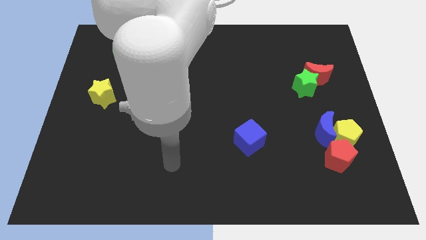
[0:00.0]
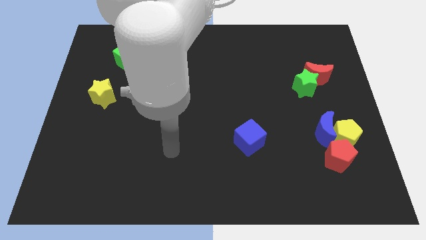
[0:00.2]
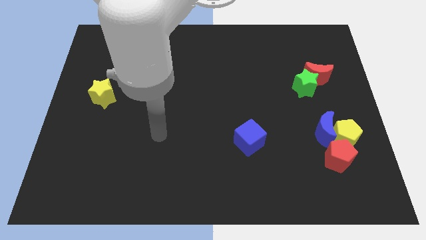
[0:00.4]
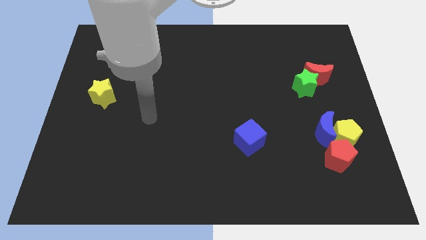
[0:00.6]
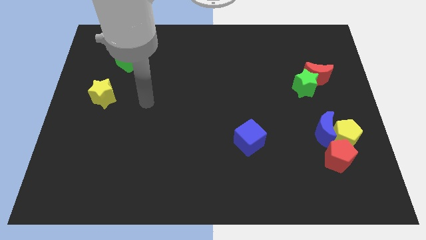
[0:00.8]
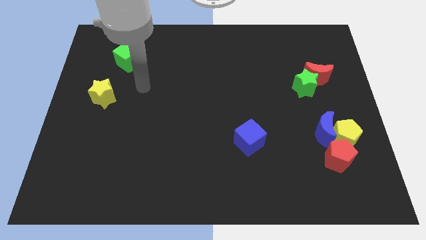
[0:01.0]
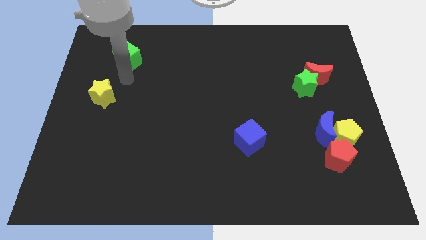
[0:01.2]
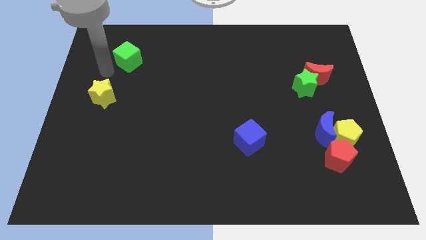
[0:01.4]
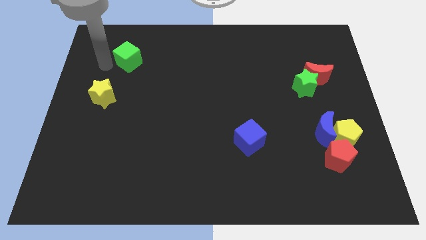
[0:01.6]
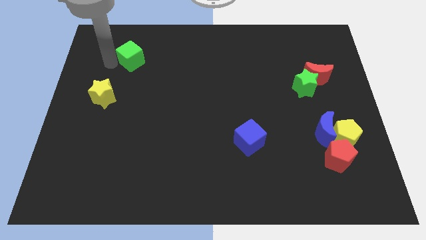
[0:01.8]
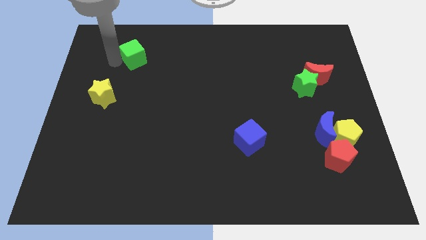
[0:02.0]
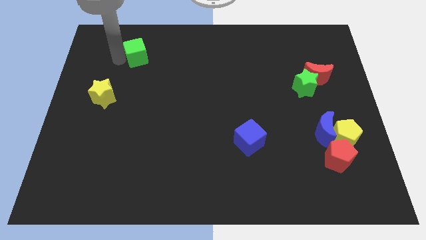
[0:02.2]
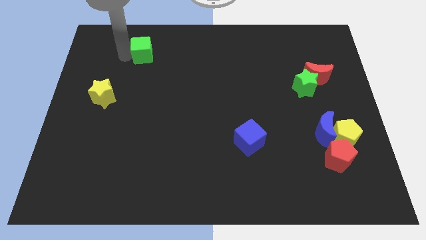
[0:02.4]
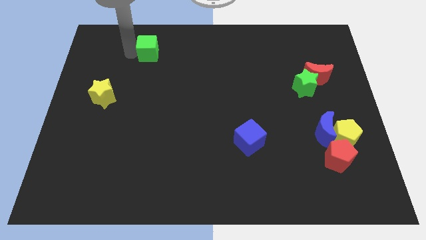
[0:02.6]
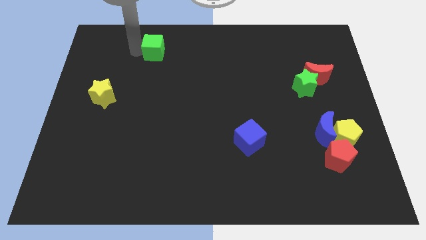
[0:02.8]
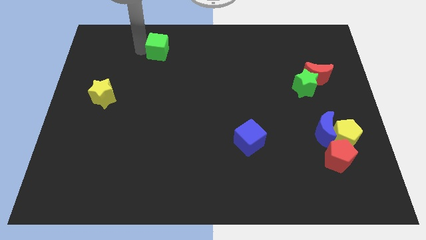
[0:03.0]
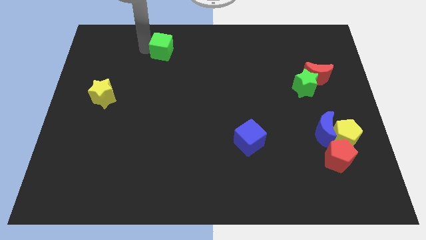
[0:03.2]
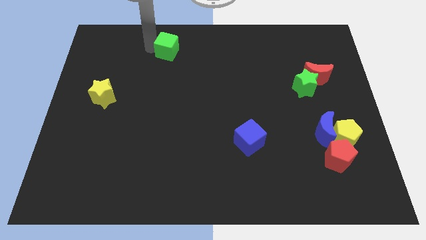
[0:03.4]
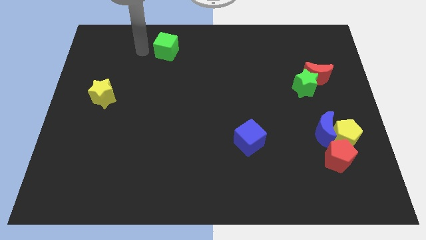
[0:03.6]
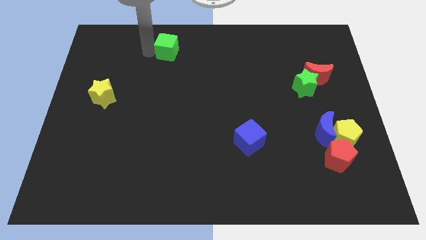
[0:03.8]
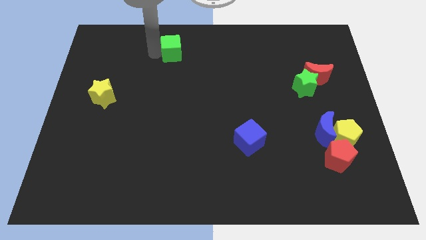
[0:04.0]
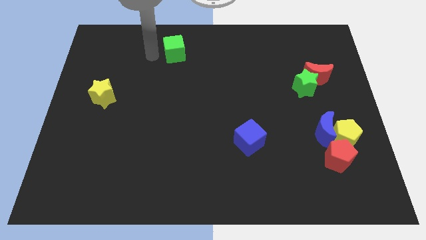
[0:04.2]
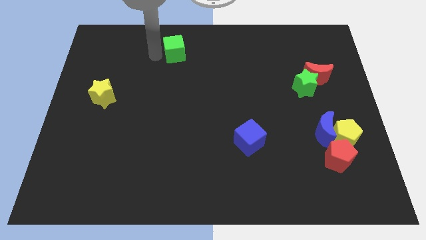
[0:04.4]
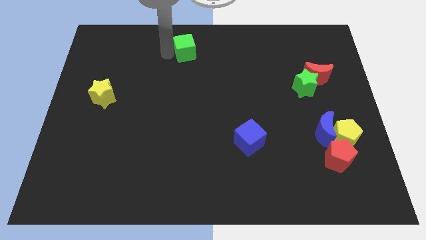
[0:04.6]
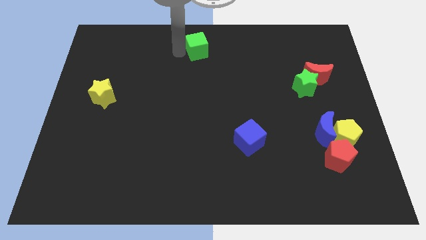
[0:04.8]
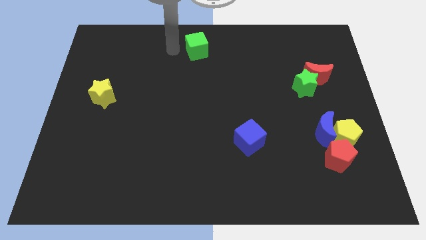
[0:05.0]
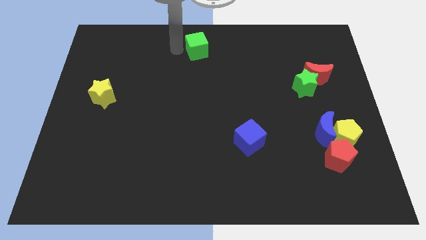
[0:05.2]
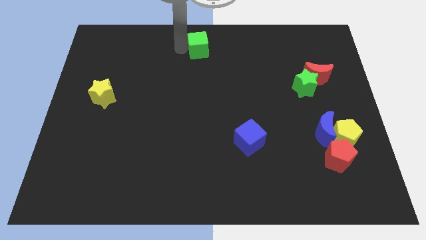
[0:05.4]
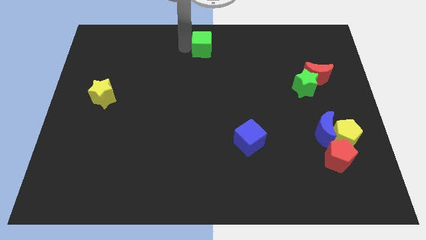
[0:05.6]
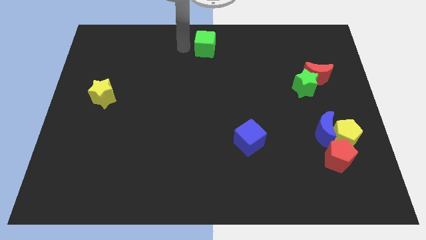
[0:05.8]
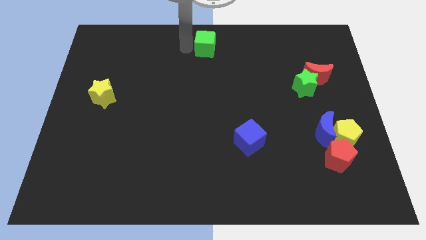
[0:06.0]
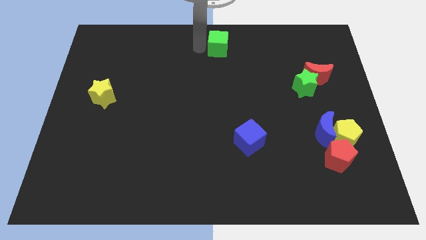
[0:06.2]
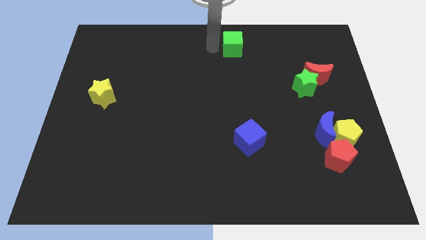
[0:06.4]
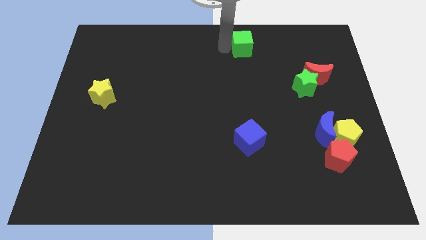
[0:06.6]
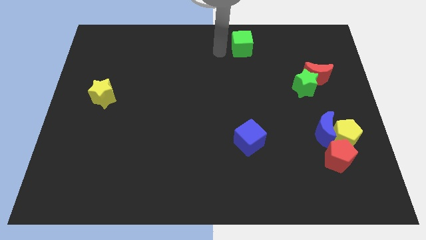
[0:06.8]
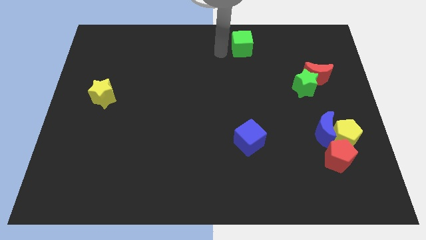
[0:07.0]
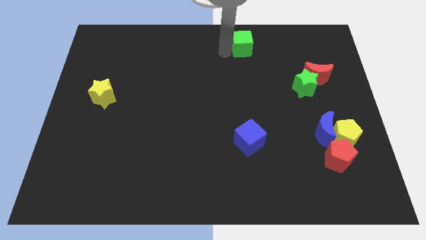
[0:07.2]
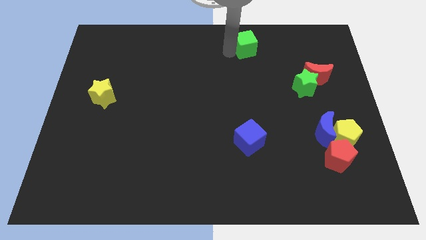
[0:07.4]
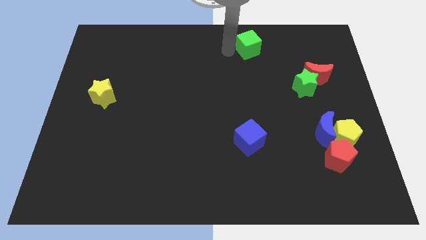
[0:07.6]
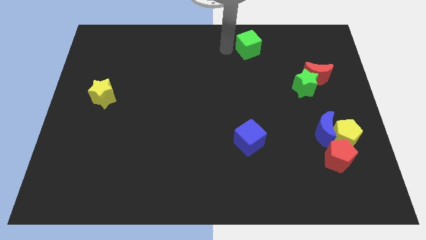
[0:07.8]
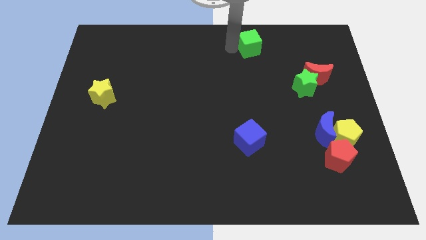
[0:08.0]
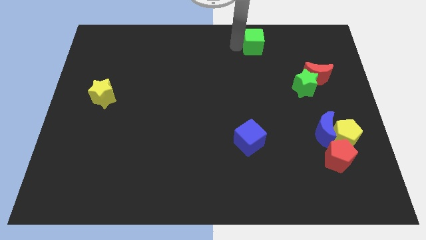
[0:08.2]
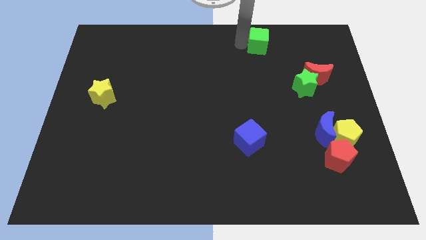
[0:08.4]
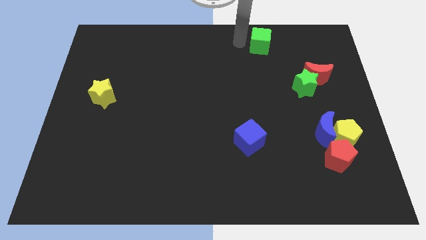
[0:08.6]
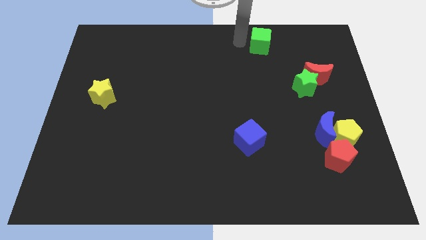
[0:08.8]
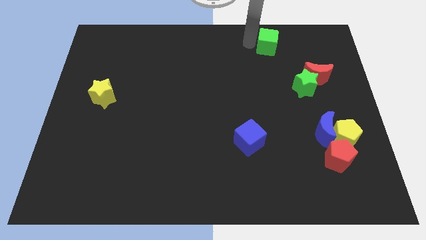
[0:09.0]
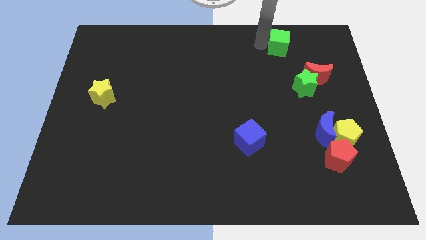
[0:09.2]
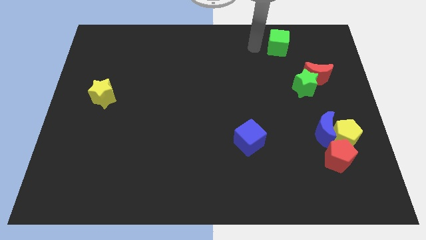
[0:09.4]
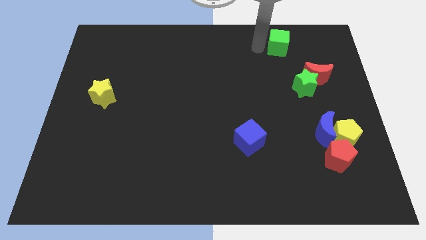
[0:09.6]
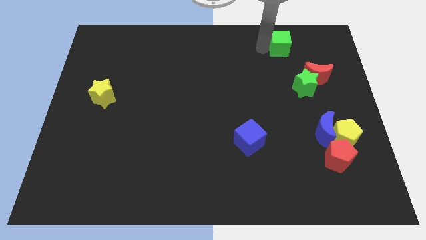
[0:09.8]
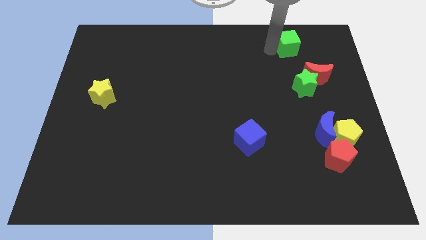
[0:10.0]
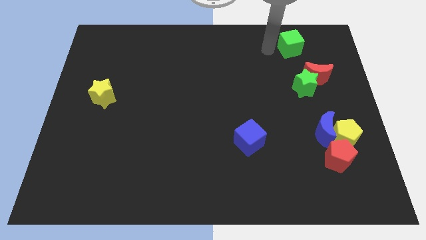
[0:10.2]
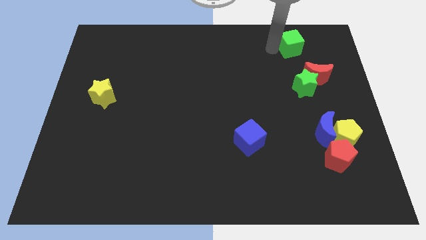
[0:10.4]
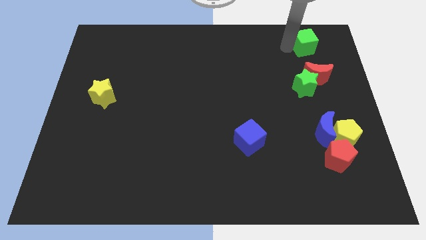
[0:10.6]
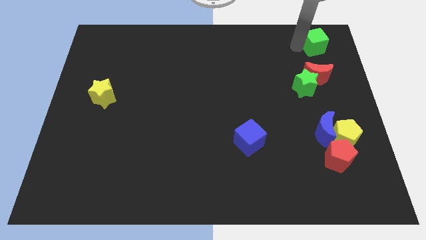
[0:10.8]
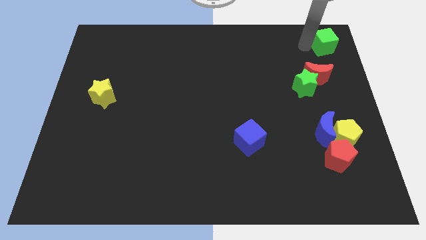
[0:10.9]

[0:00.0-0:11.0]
push the green cube to the top right

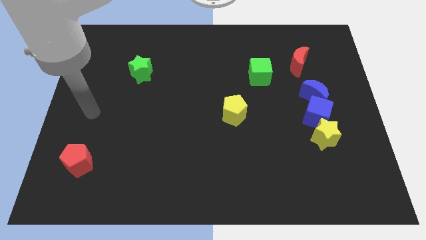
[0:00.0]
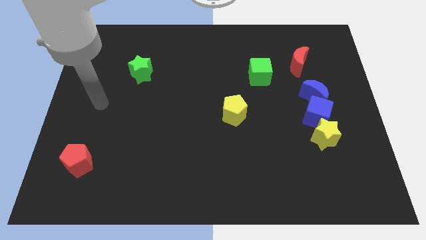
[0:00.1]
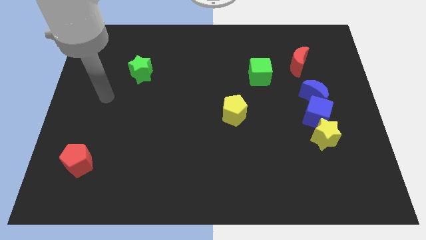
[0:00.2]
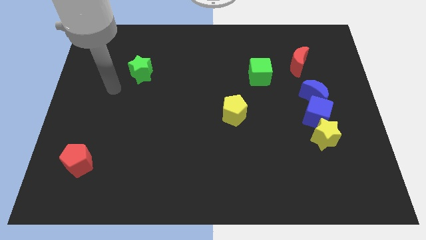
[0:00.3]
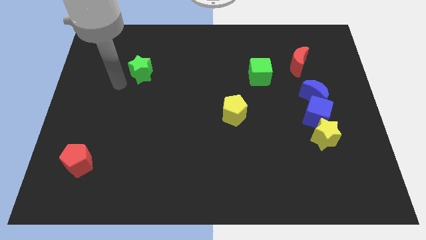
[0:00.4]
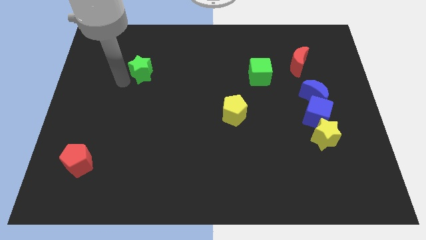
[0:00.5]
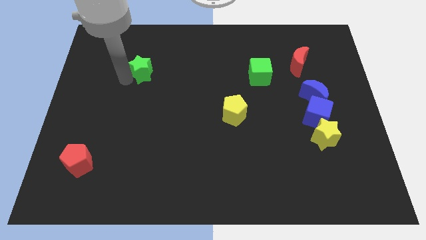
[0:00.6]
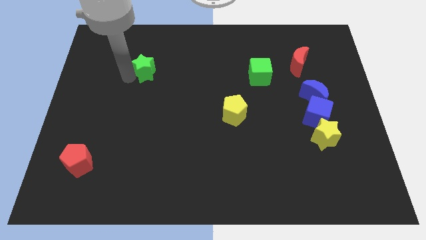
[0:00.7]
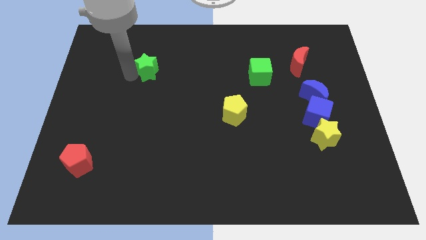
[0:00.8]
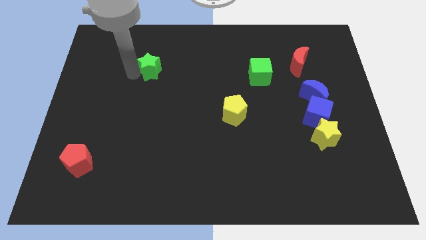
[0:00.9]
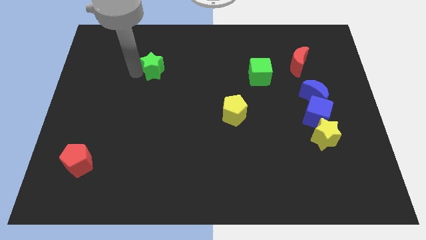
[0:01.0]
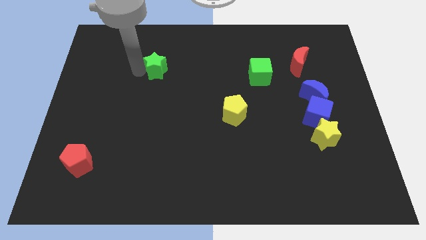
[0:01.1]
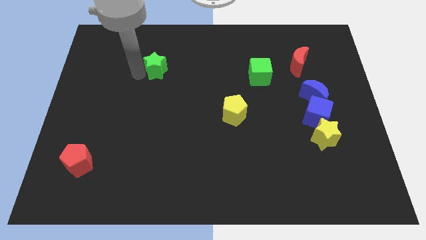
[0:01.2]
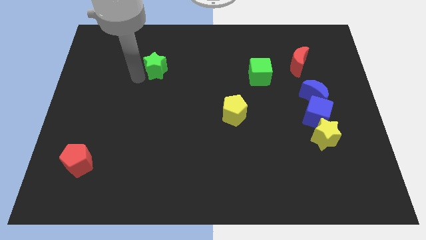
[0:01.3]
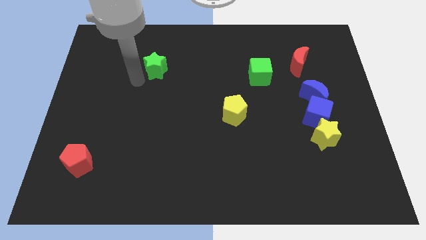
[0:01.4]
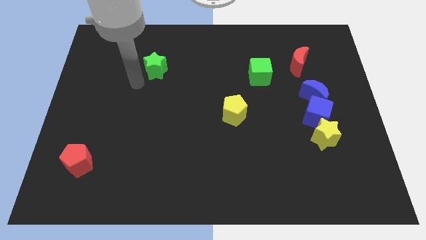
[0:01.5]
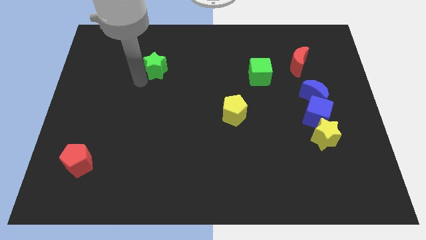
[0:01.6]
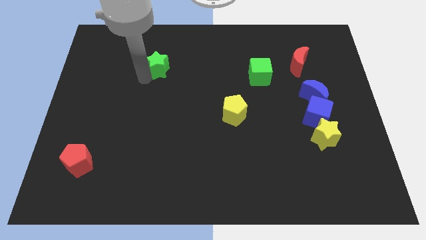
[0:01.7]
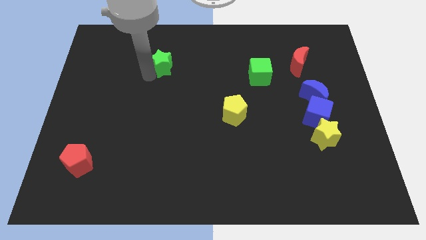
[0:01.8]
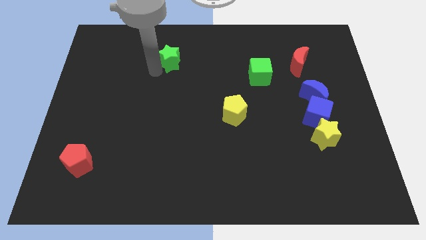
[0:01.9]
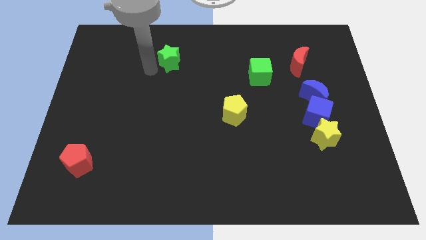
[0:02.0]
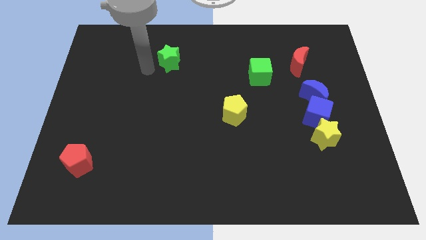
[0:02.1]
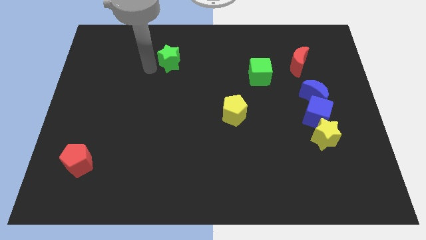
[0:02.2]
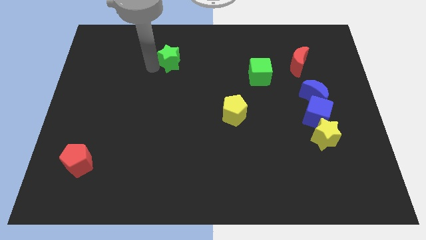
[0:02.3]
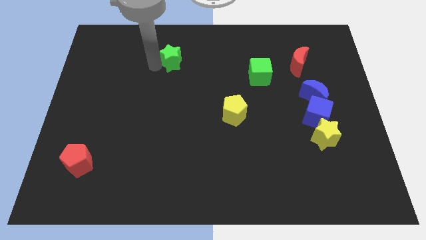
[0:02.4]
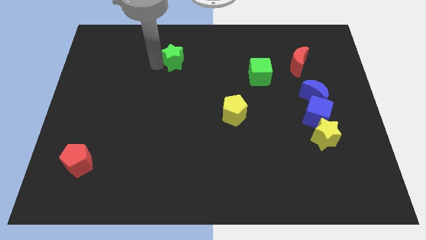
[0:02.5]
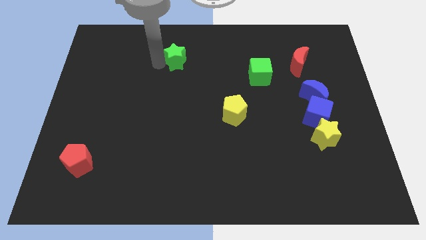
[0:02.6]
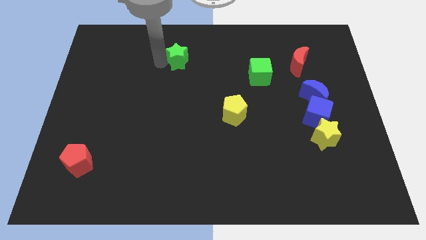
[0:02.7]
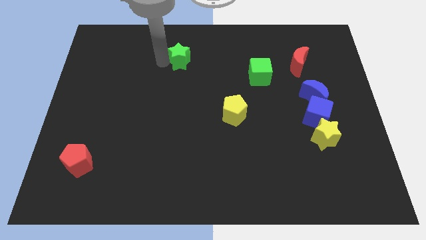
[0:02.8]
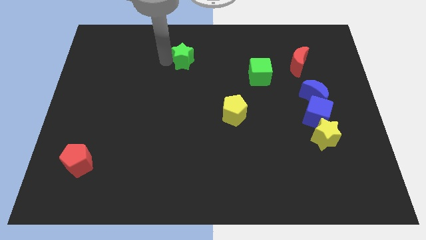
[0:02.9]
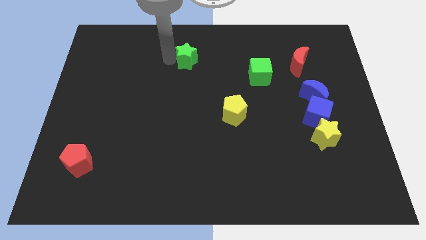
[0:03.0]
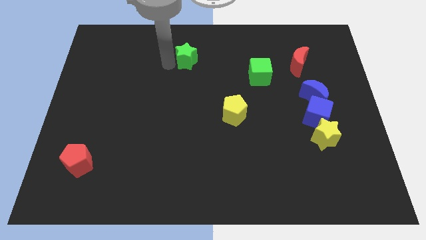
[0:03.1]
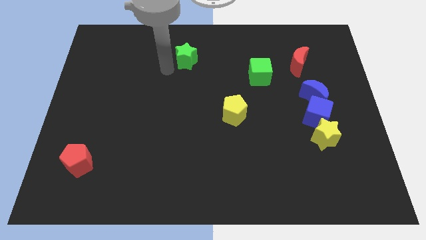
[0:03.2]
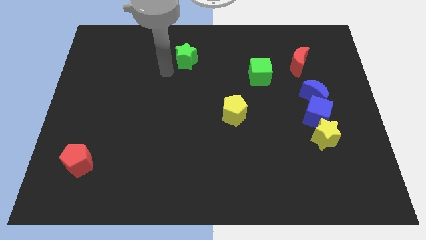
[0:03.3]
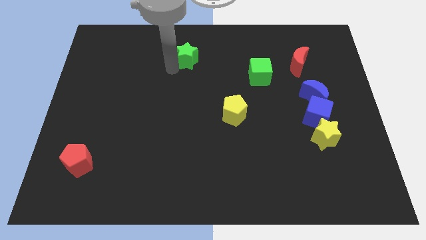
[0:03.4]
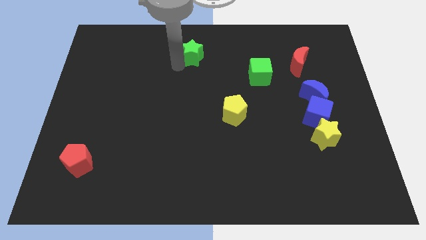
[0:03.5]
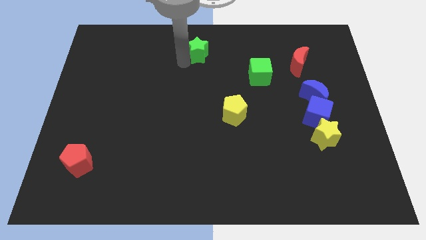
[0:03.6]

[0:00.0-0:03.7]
push the green star to the top side
